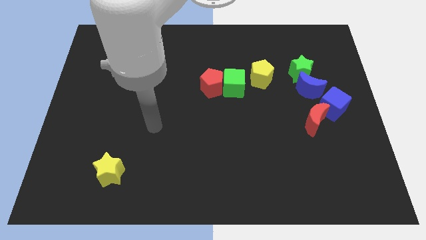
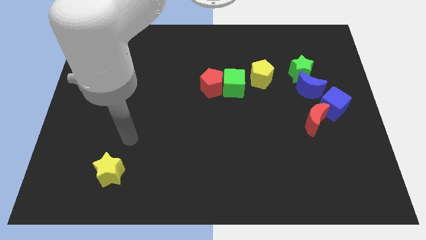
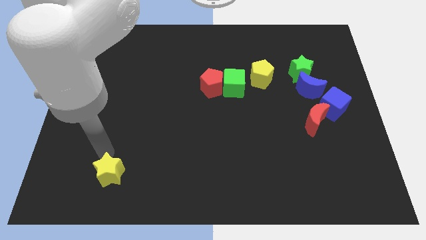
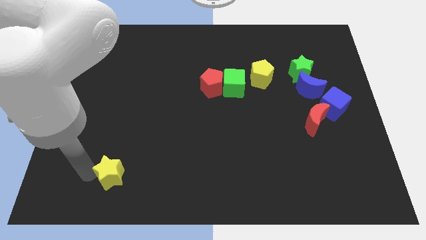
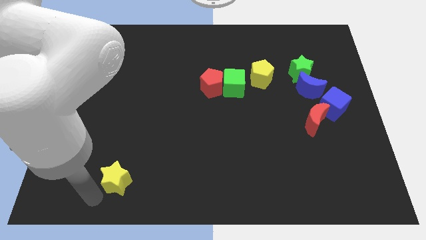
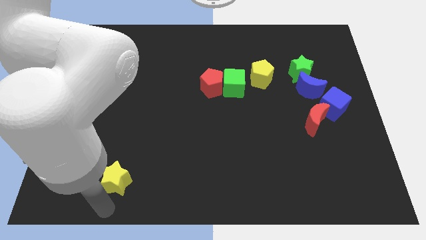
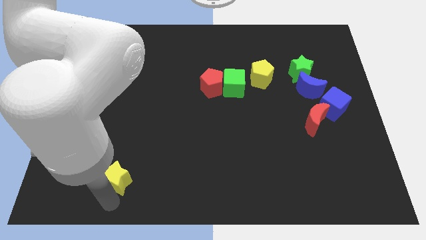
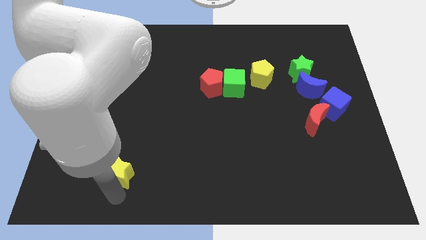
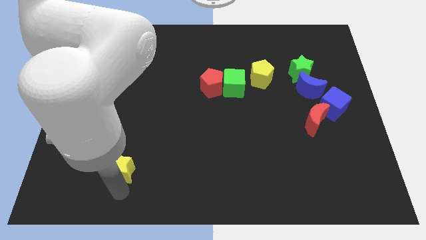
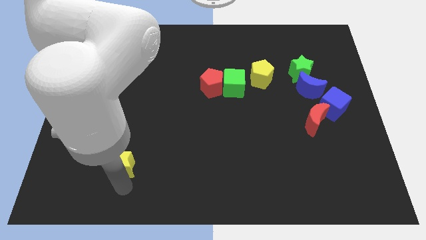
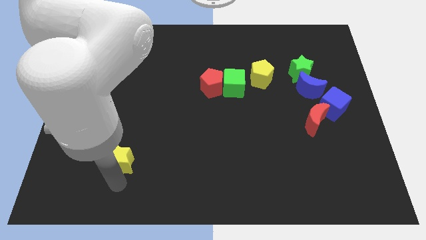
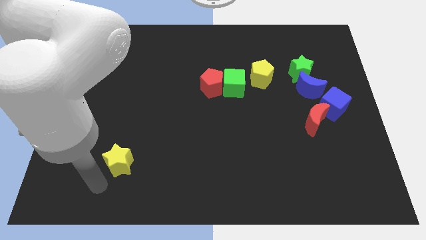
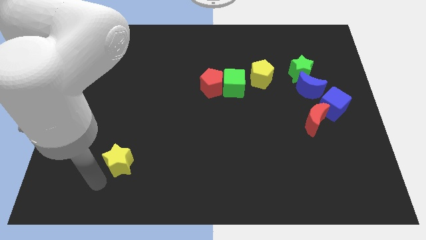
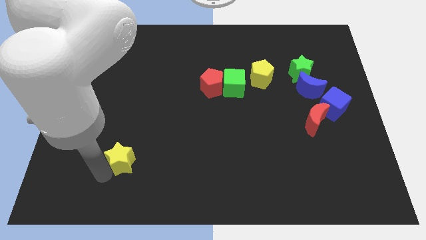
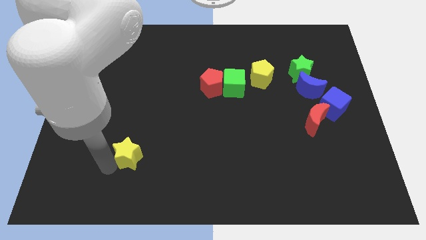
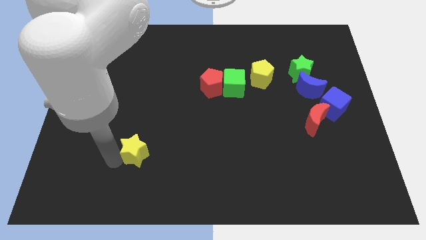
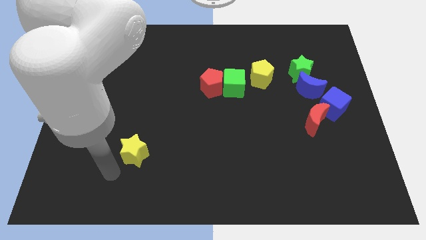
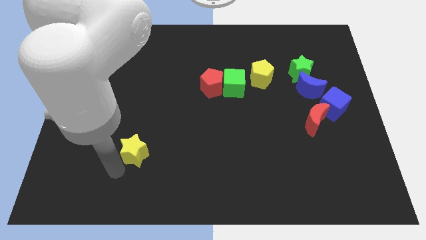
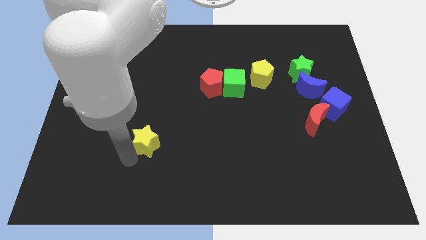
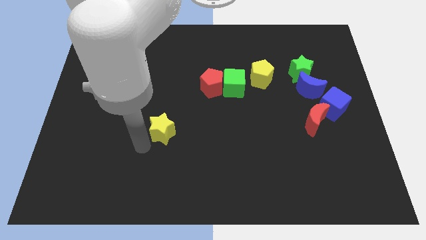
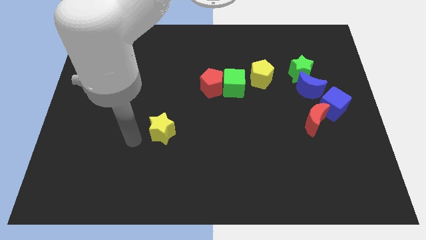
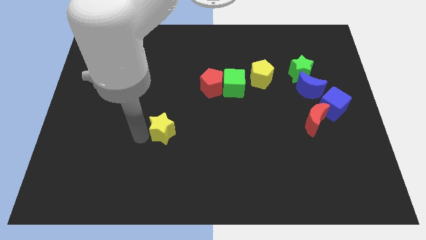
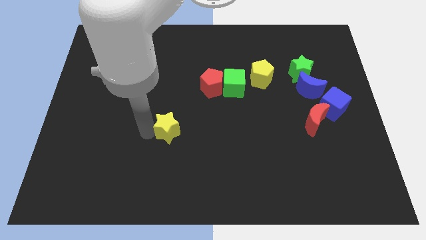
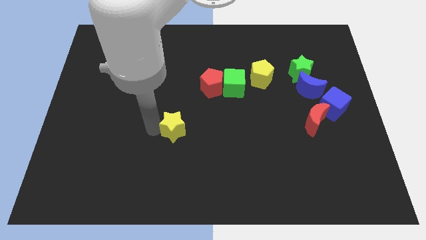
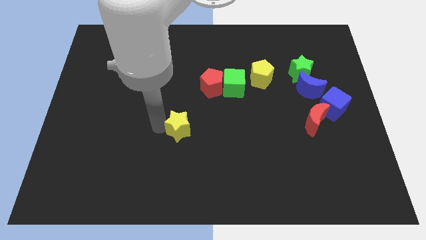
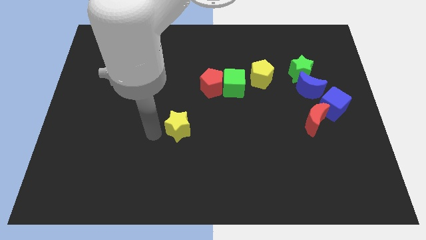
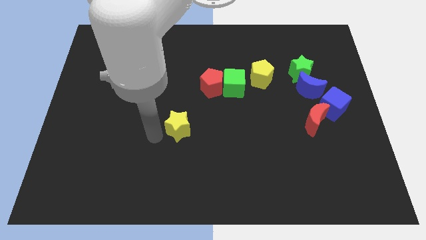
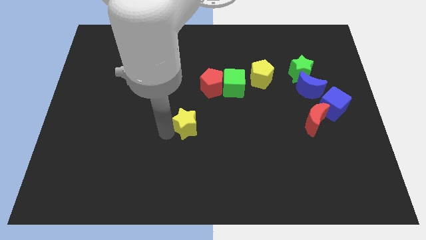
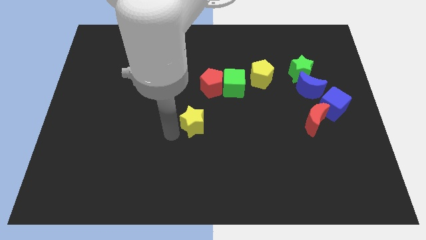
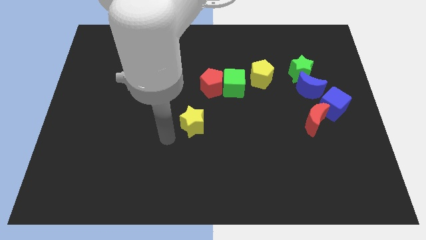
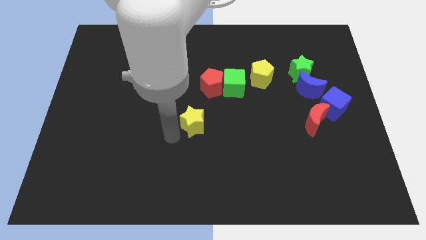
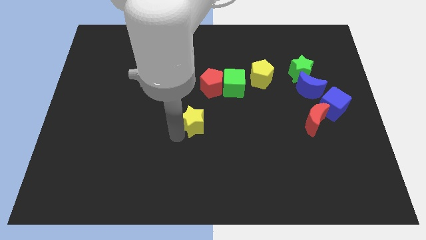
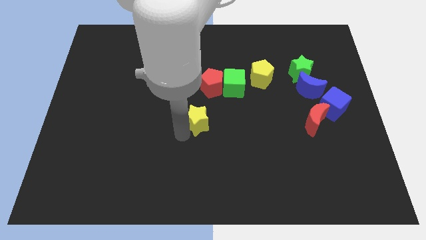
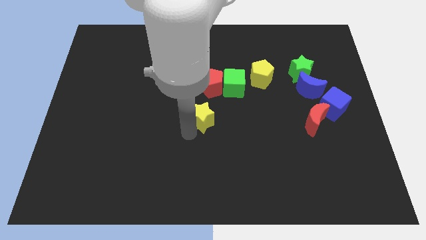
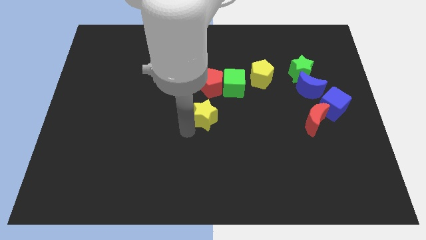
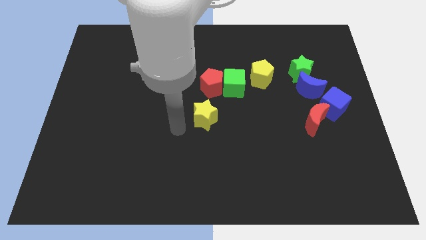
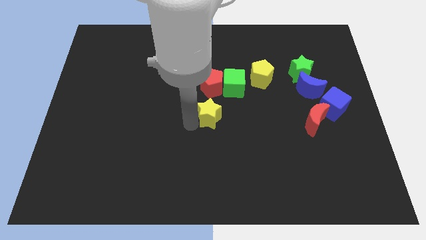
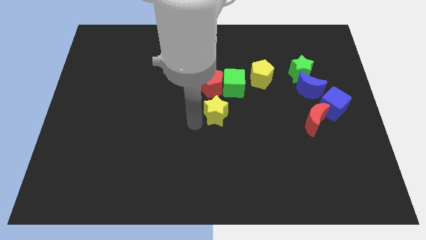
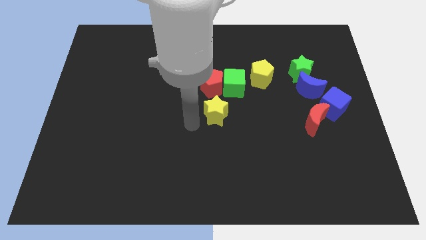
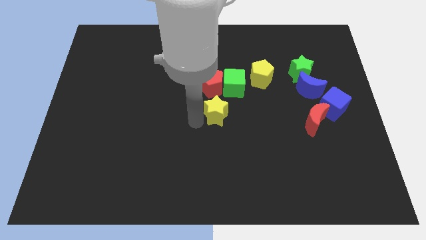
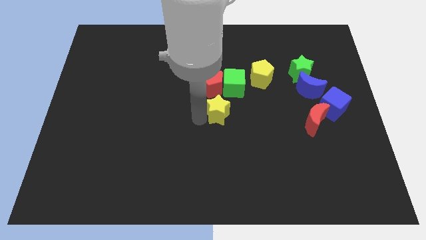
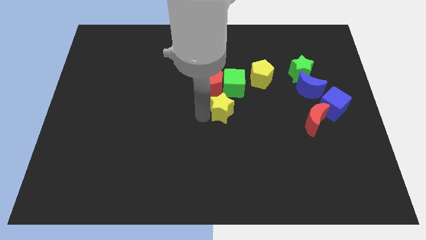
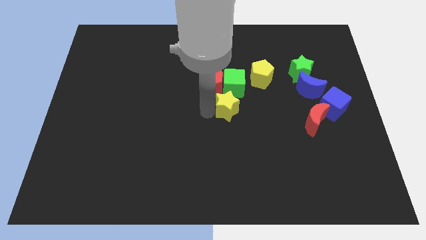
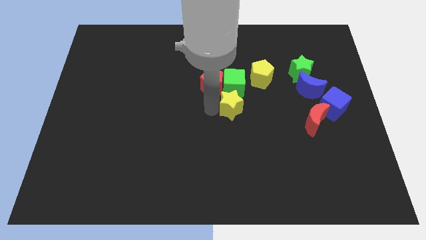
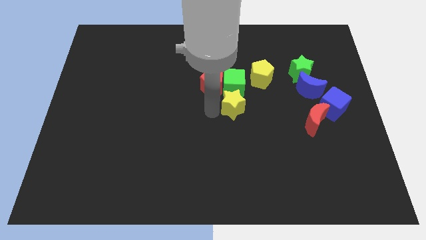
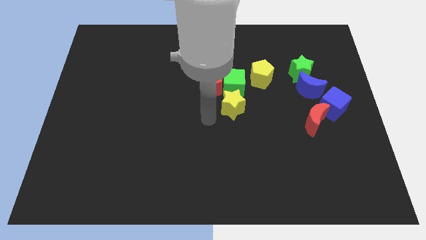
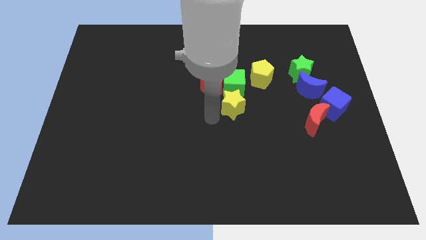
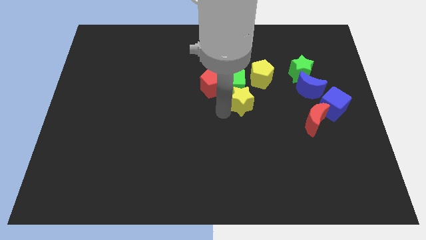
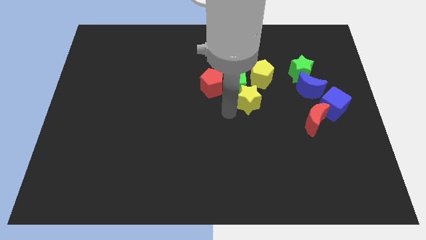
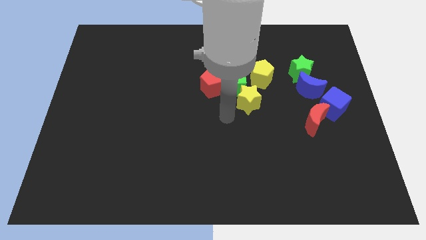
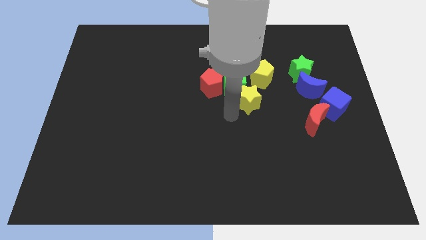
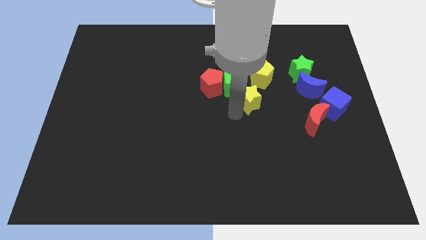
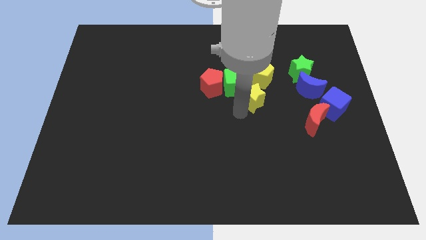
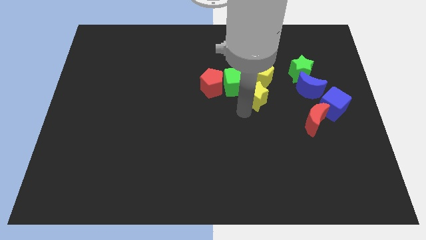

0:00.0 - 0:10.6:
push the yellow star to the right of the green cube

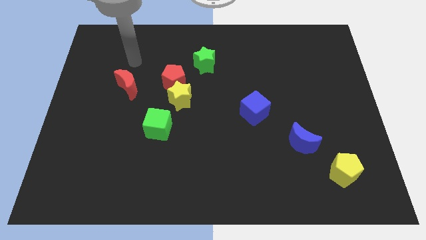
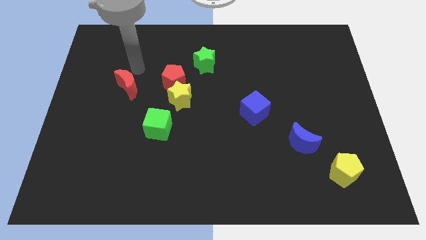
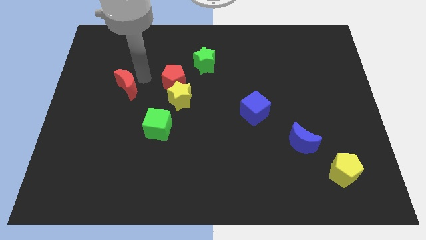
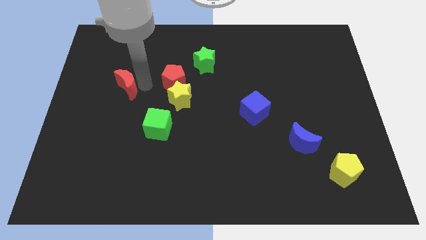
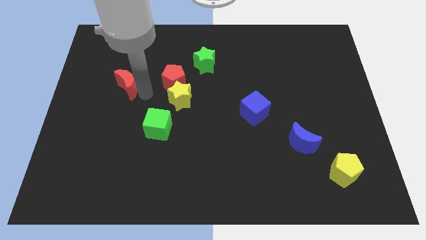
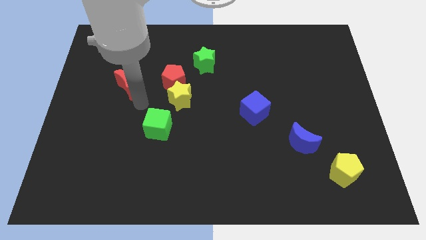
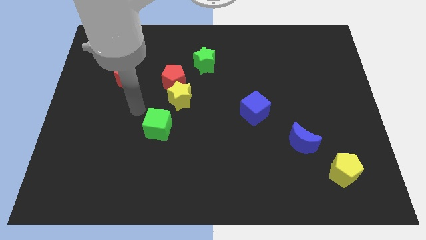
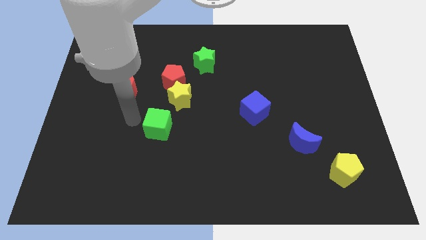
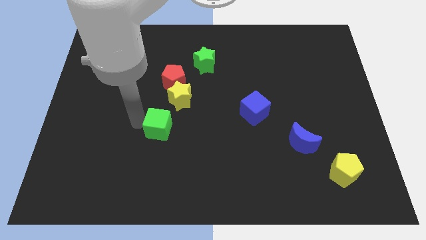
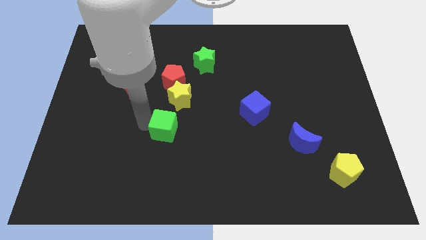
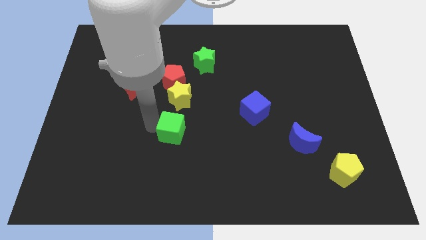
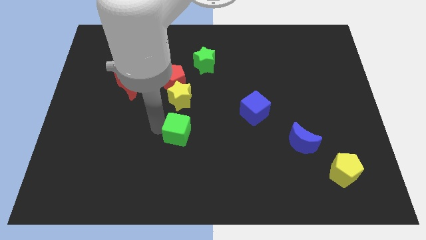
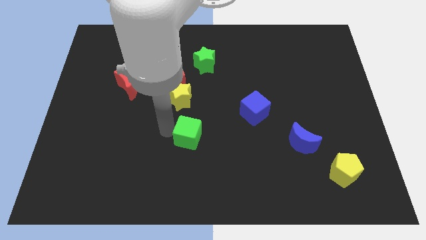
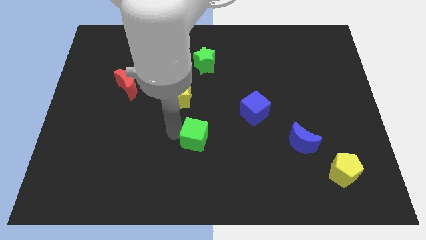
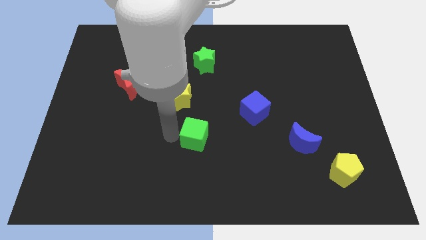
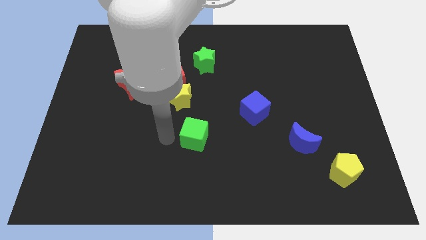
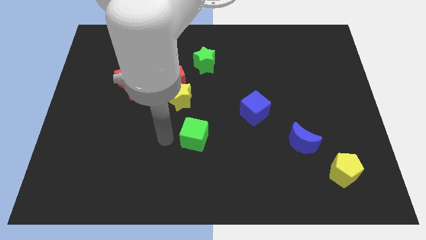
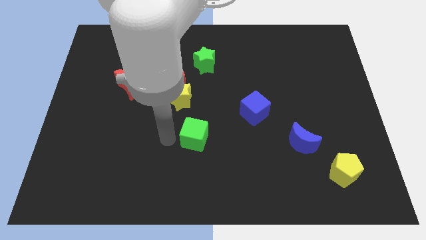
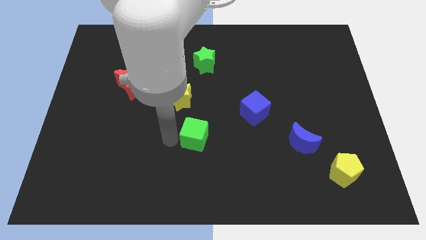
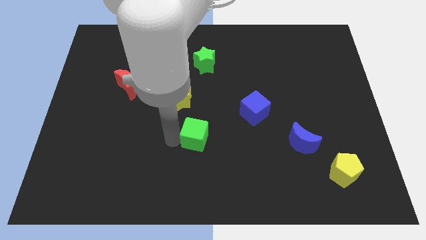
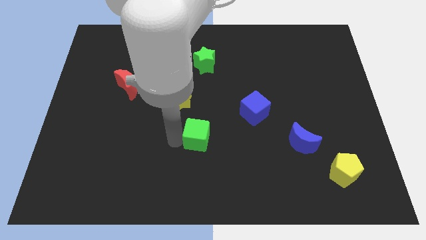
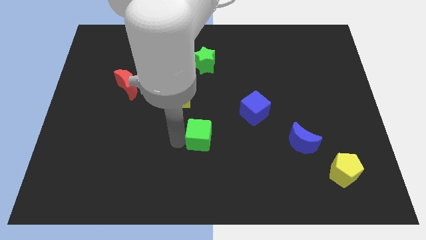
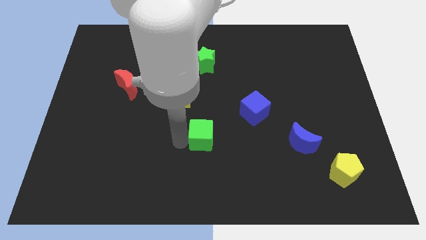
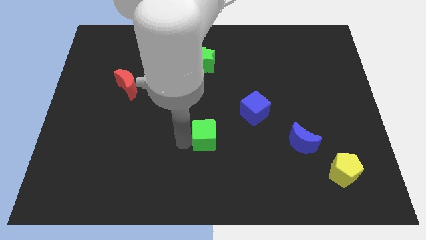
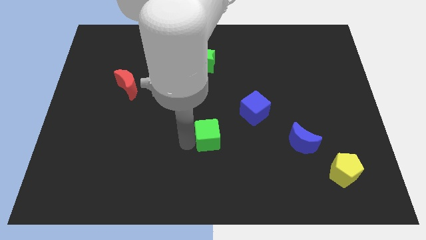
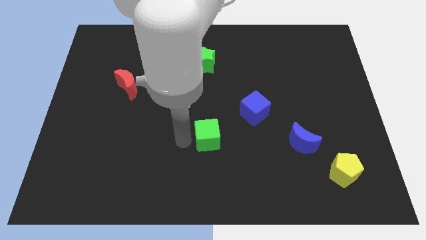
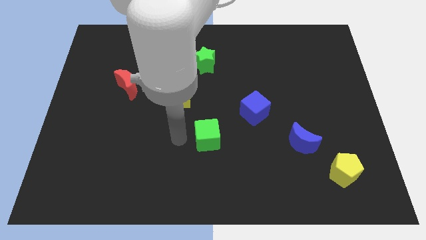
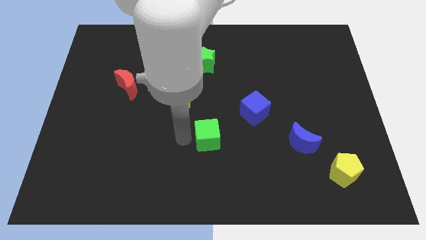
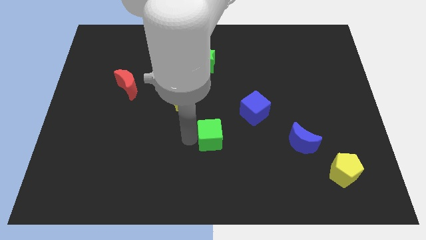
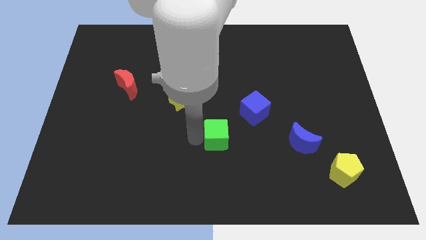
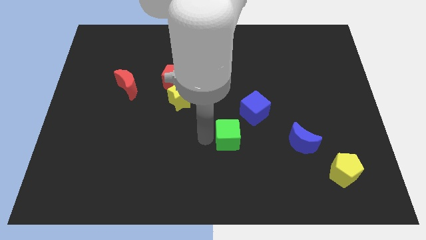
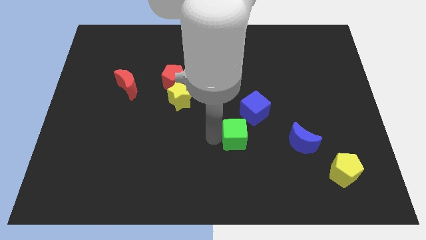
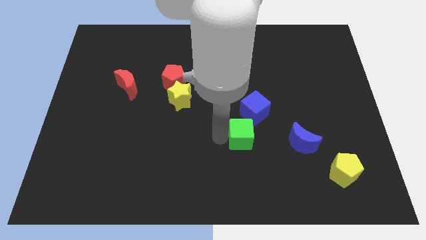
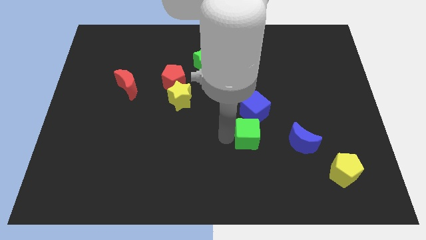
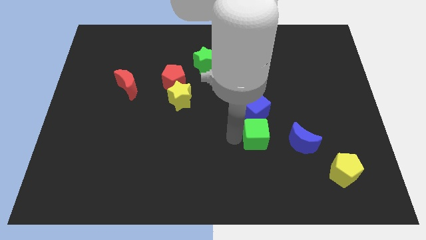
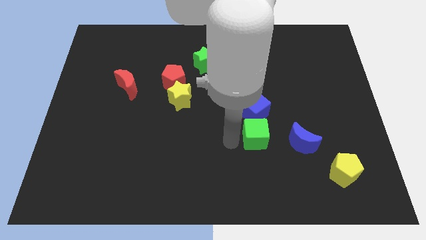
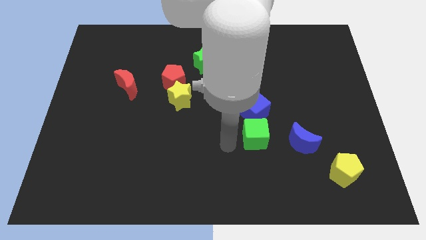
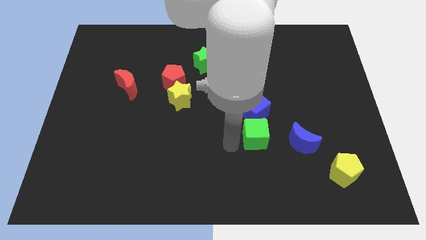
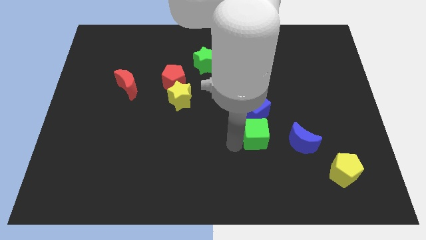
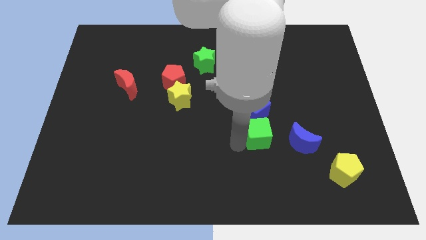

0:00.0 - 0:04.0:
push the green cube diagonally down and to the right of the blue cube
